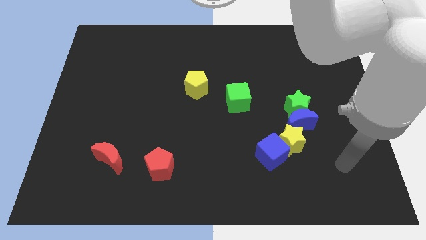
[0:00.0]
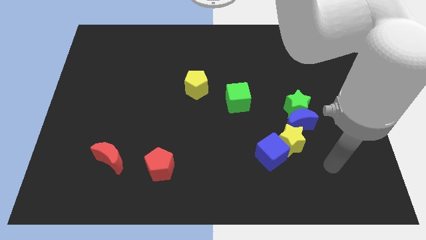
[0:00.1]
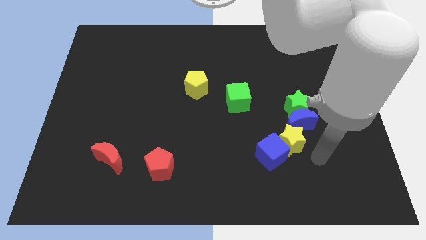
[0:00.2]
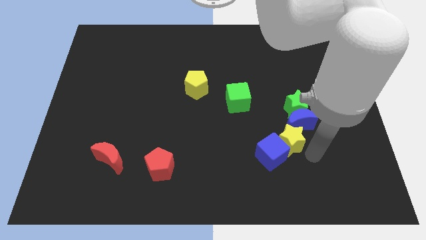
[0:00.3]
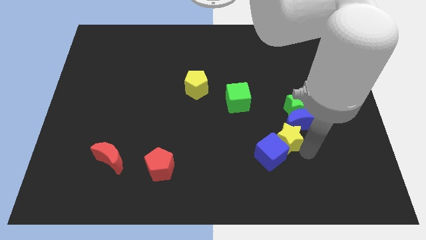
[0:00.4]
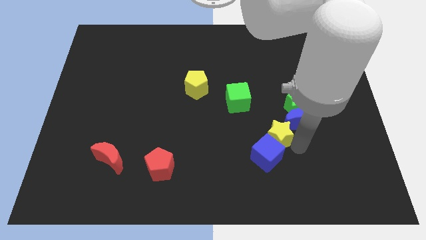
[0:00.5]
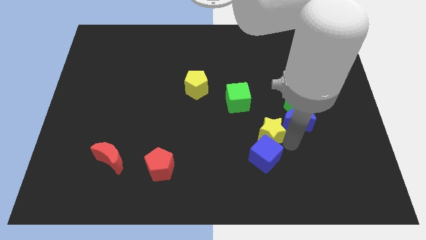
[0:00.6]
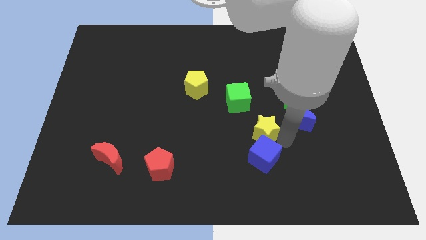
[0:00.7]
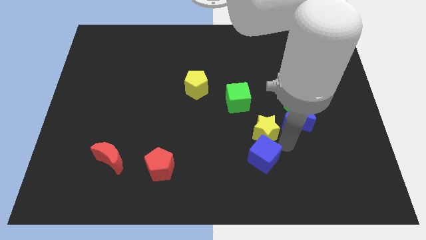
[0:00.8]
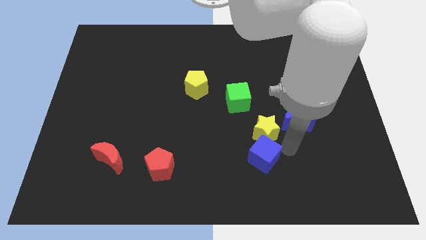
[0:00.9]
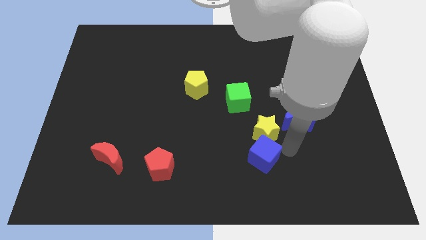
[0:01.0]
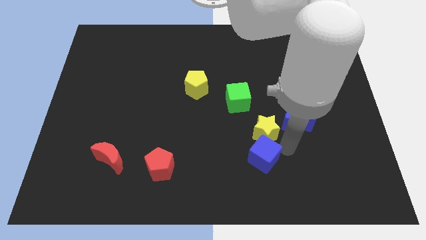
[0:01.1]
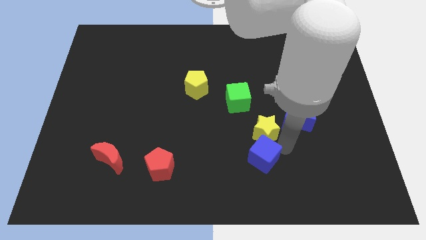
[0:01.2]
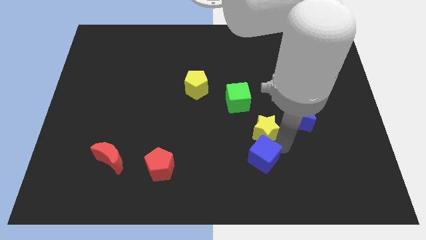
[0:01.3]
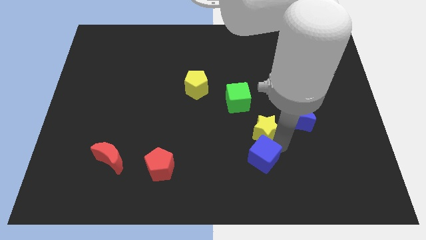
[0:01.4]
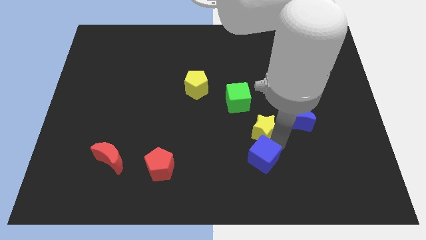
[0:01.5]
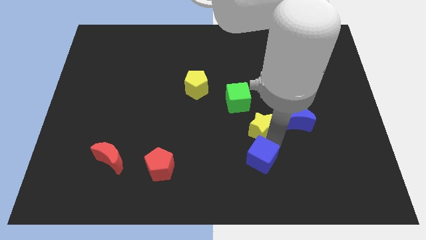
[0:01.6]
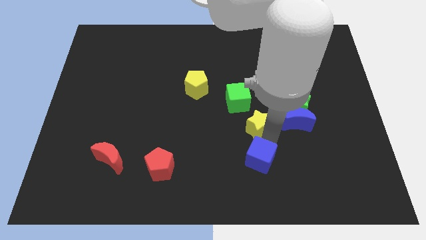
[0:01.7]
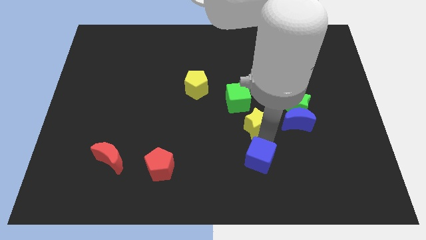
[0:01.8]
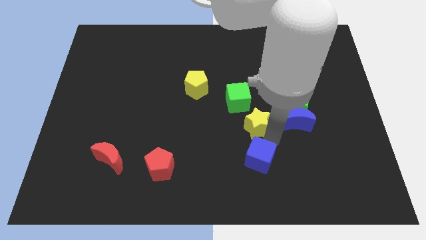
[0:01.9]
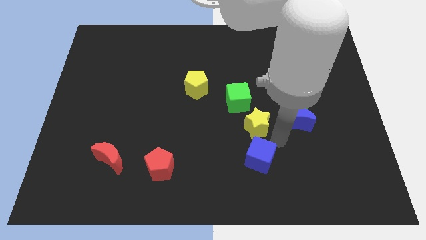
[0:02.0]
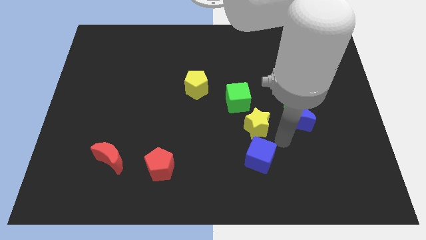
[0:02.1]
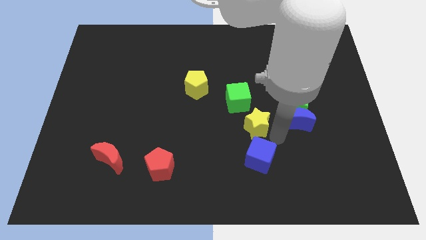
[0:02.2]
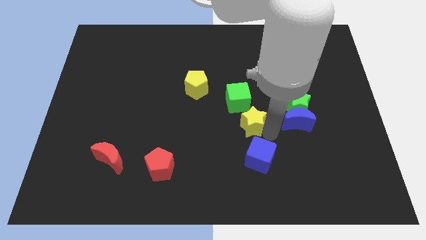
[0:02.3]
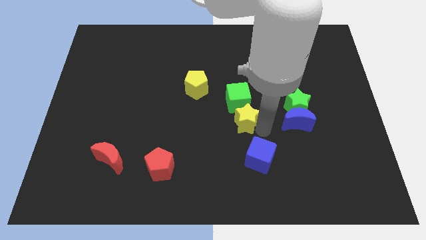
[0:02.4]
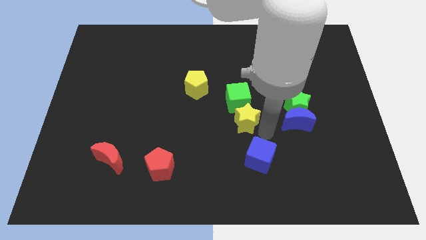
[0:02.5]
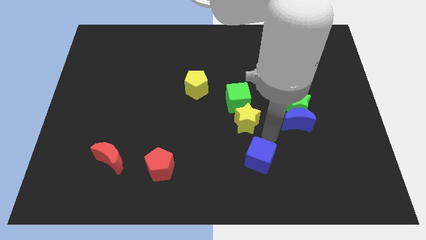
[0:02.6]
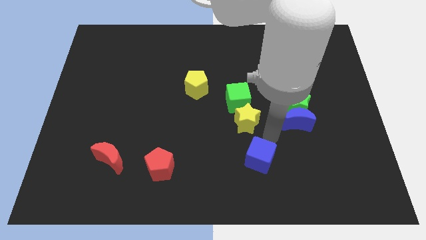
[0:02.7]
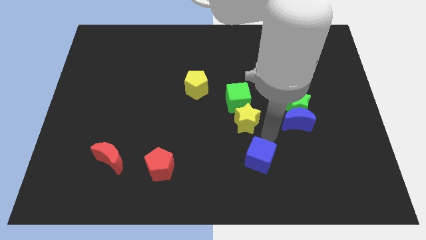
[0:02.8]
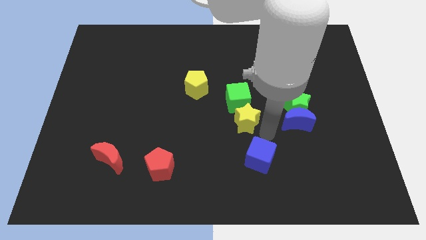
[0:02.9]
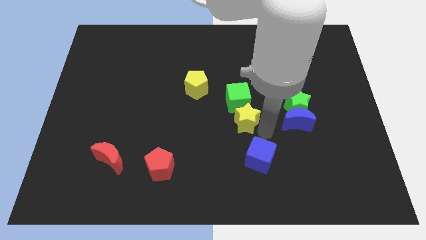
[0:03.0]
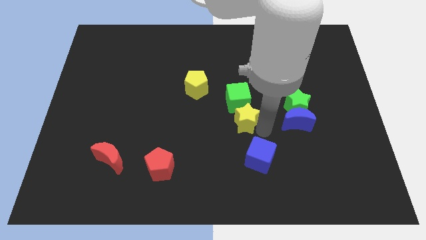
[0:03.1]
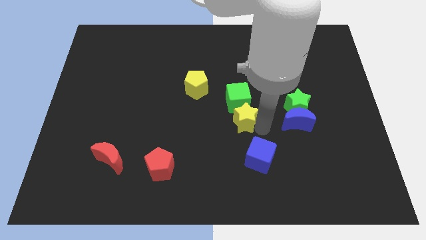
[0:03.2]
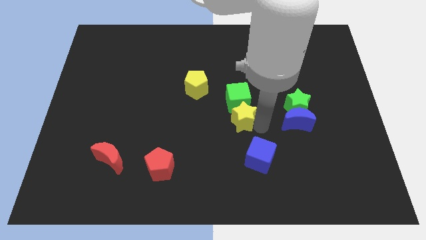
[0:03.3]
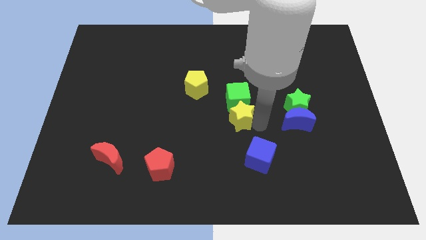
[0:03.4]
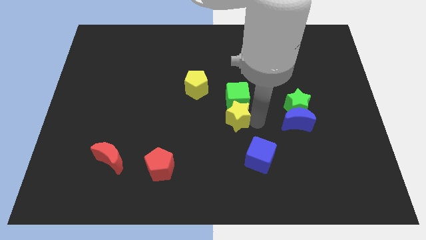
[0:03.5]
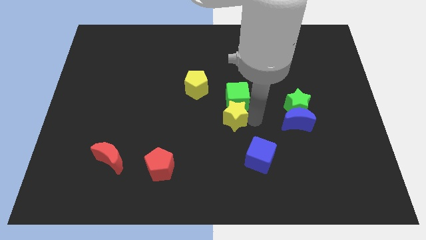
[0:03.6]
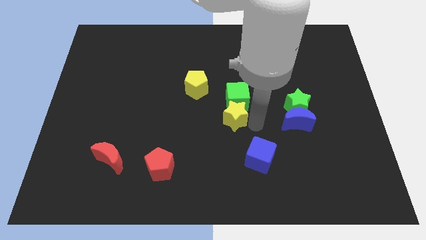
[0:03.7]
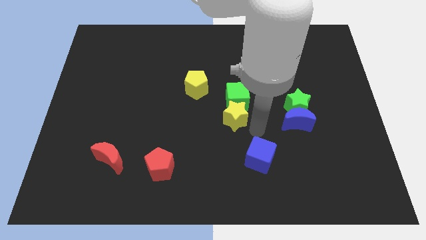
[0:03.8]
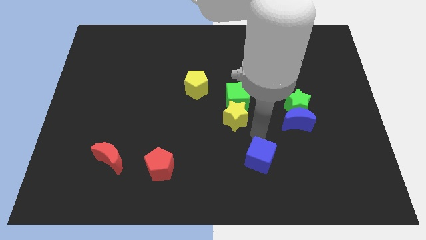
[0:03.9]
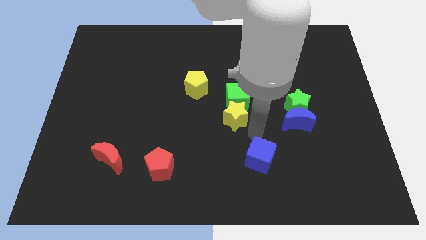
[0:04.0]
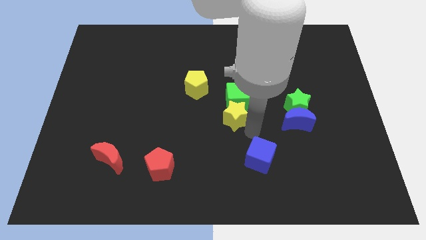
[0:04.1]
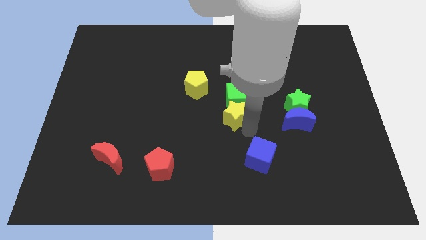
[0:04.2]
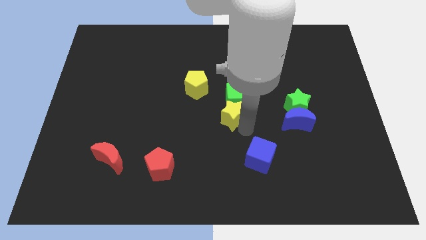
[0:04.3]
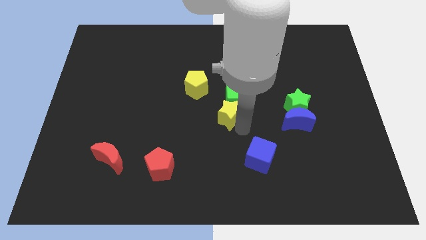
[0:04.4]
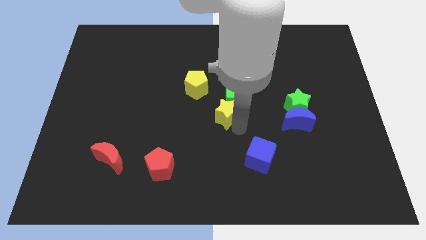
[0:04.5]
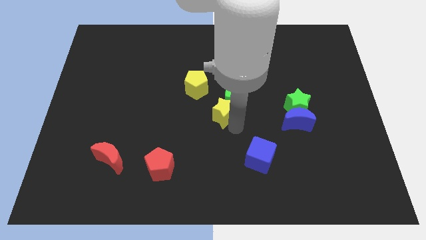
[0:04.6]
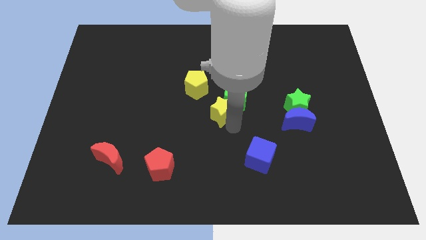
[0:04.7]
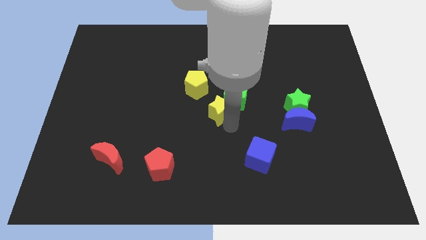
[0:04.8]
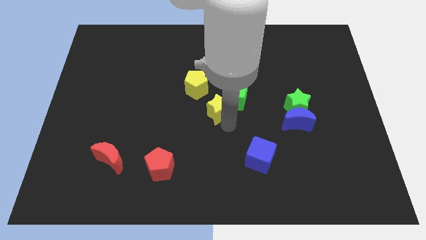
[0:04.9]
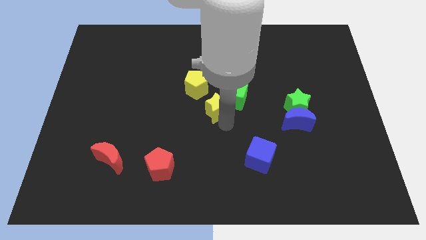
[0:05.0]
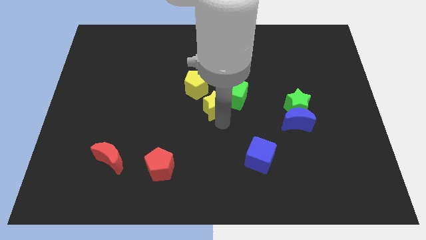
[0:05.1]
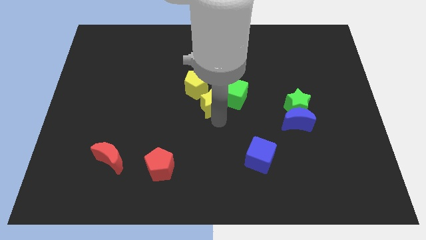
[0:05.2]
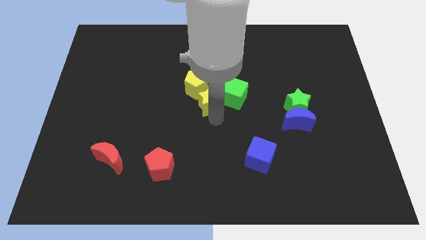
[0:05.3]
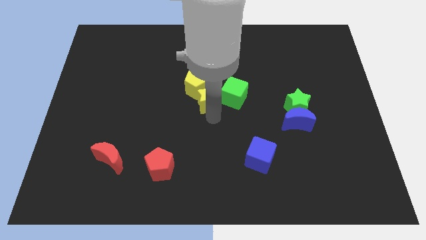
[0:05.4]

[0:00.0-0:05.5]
move the yellow star towards the yellow pentagon

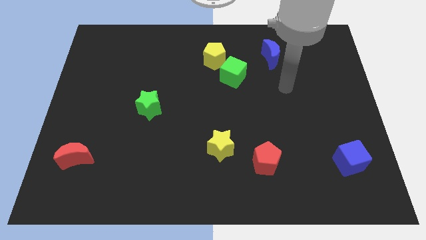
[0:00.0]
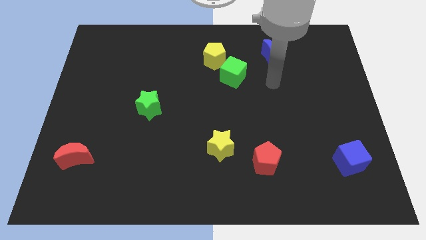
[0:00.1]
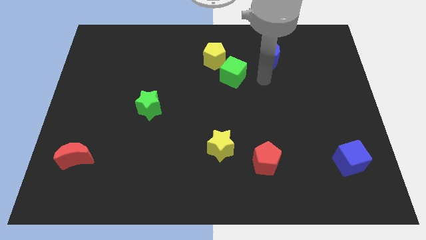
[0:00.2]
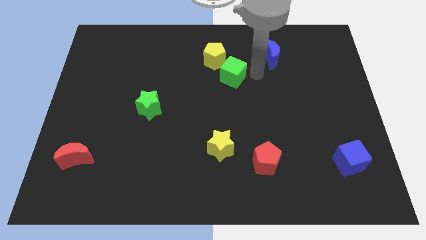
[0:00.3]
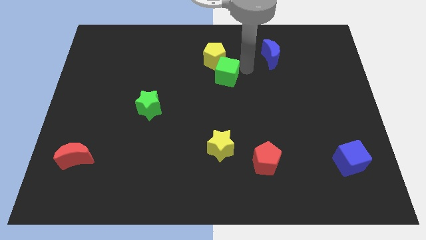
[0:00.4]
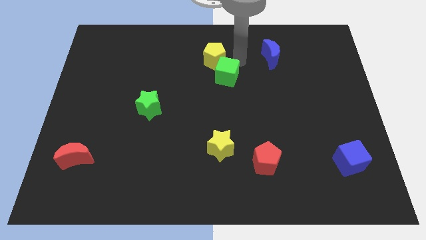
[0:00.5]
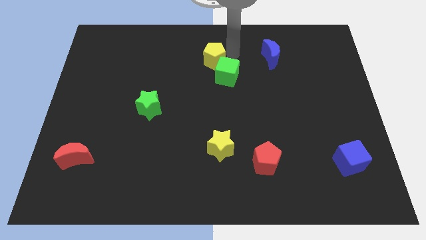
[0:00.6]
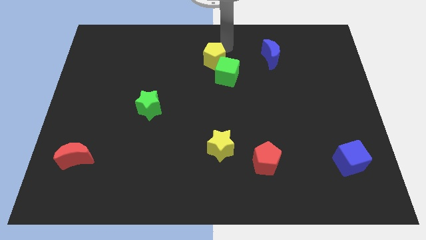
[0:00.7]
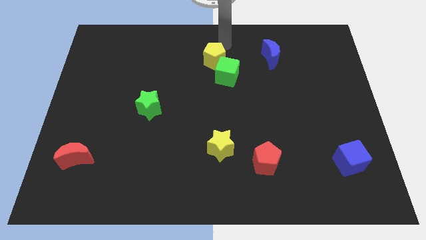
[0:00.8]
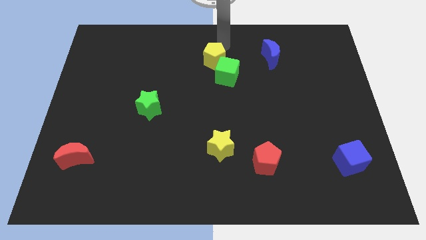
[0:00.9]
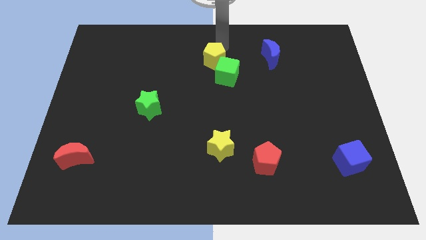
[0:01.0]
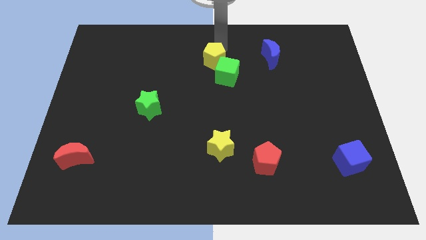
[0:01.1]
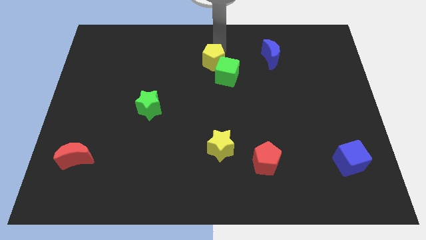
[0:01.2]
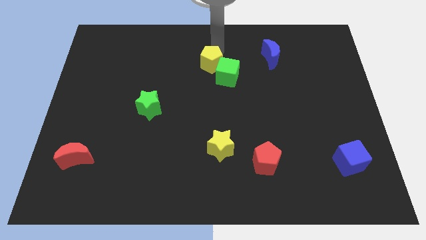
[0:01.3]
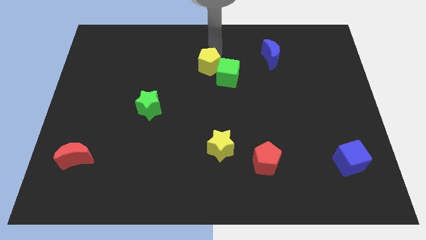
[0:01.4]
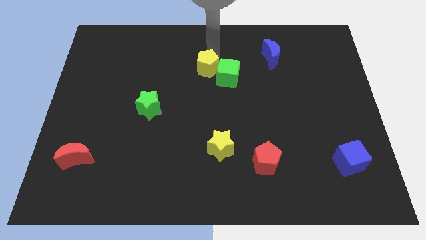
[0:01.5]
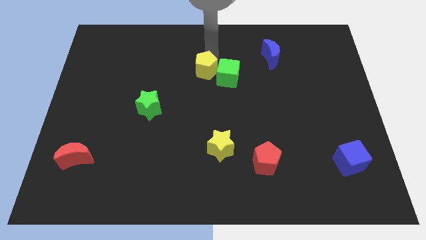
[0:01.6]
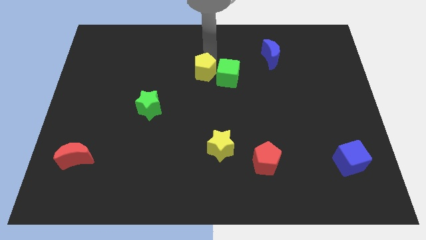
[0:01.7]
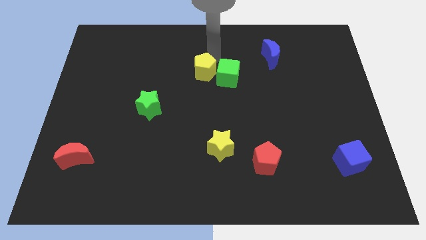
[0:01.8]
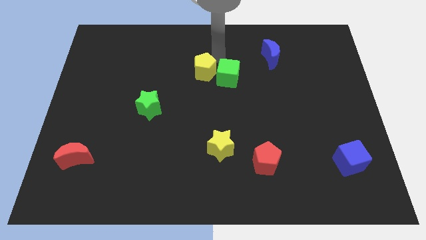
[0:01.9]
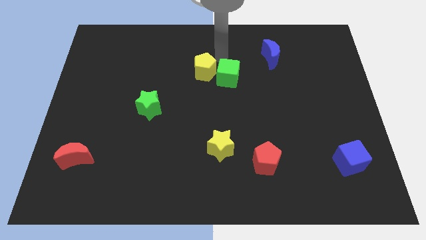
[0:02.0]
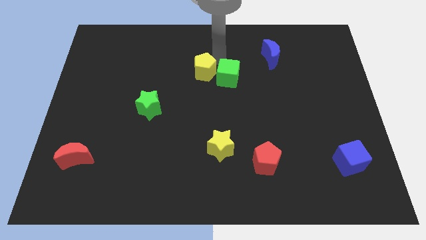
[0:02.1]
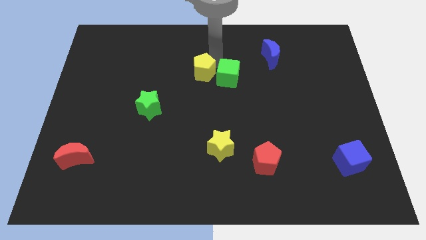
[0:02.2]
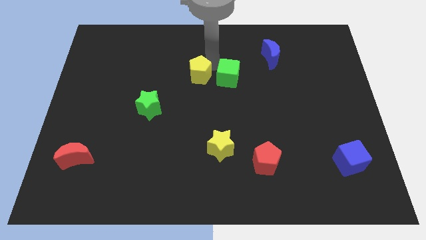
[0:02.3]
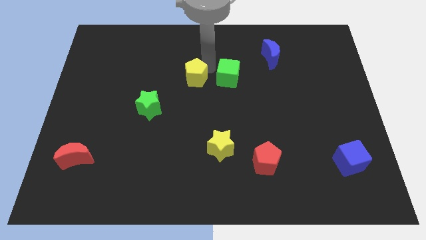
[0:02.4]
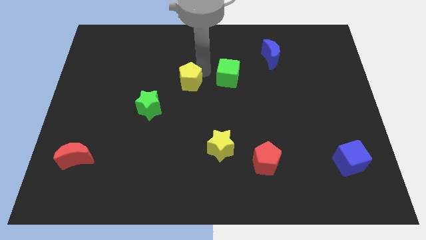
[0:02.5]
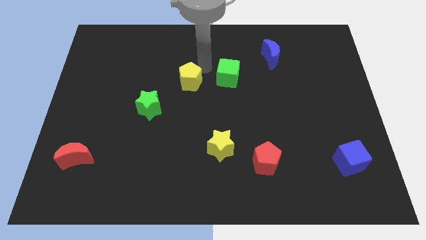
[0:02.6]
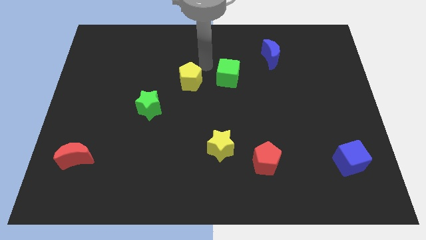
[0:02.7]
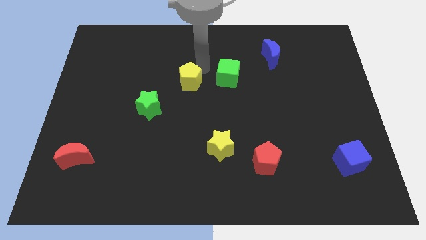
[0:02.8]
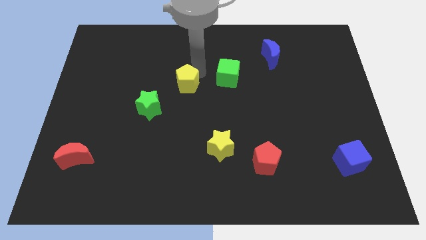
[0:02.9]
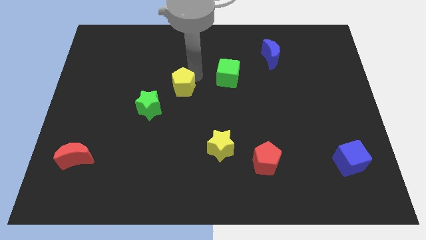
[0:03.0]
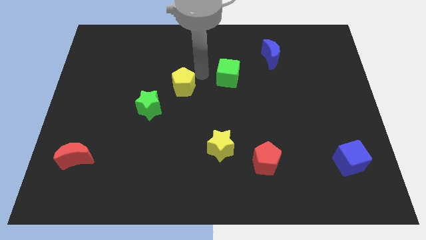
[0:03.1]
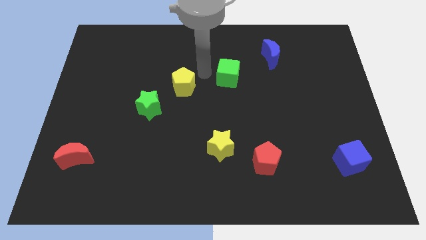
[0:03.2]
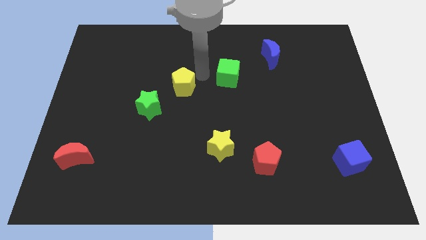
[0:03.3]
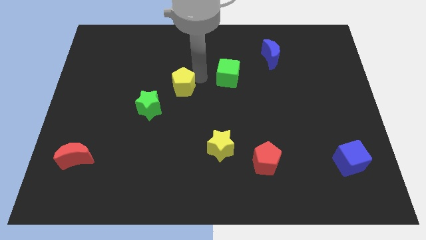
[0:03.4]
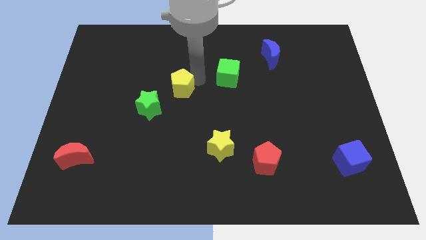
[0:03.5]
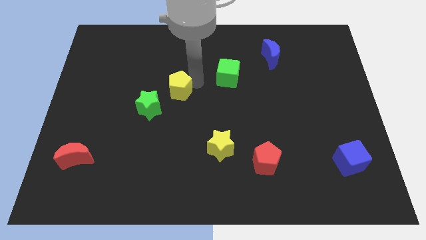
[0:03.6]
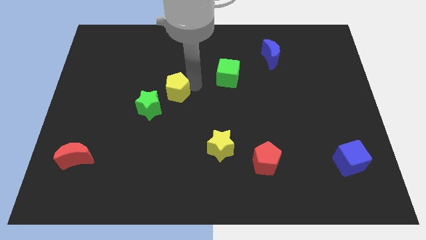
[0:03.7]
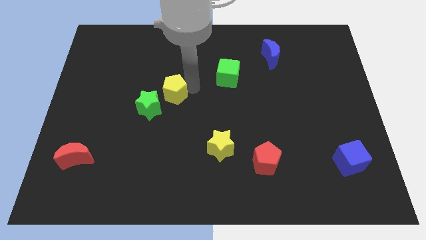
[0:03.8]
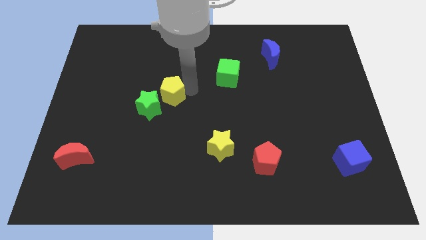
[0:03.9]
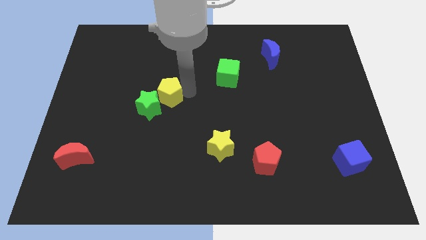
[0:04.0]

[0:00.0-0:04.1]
put the yellow pentagon next to the green star
